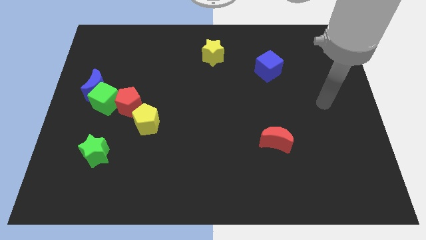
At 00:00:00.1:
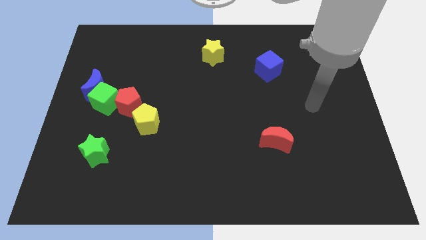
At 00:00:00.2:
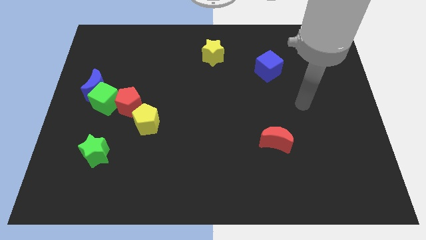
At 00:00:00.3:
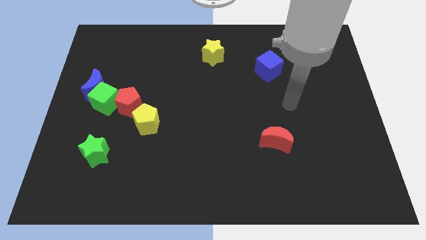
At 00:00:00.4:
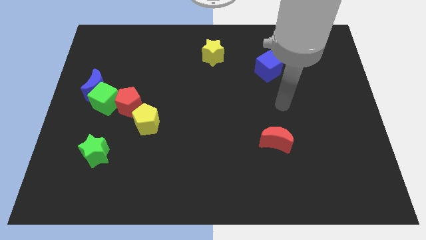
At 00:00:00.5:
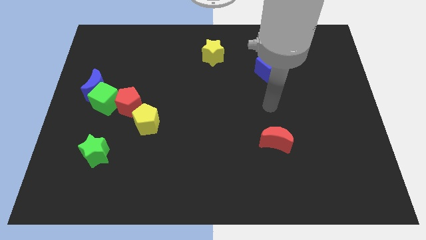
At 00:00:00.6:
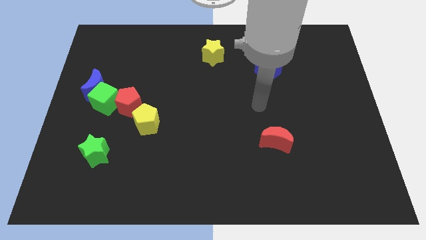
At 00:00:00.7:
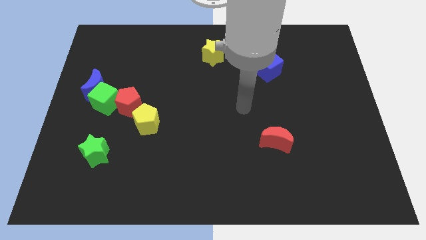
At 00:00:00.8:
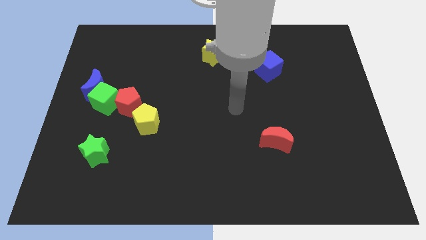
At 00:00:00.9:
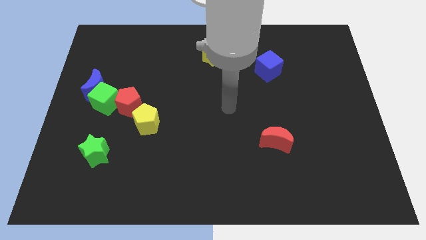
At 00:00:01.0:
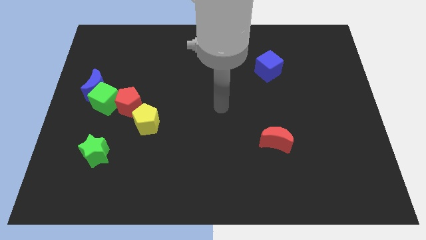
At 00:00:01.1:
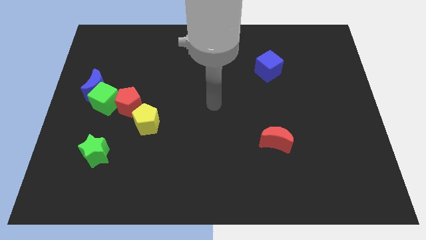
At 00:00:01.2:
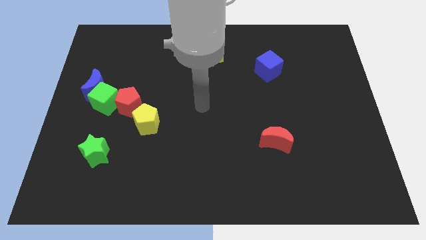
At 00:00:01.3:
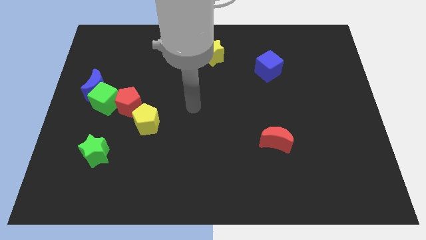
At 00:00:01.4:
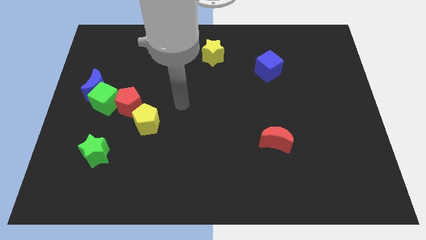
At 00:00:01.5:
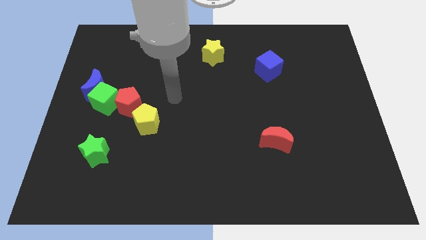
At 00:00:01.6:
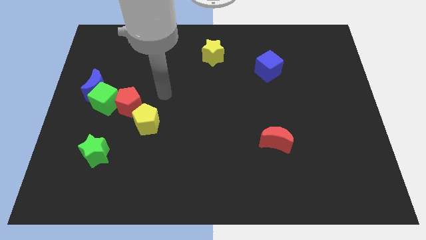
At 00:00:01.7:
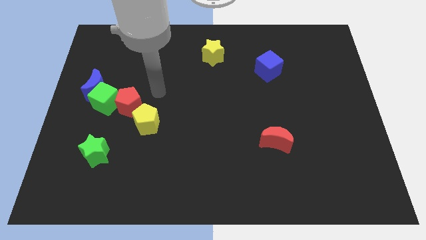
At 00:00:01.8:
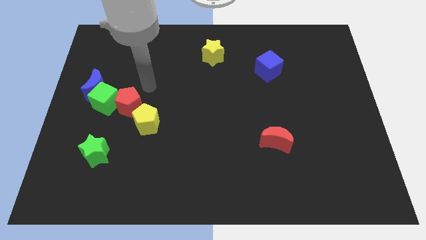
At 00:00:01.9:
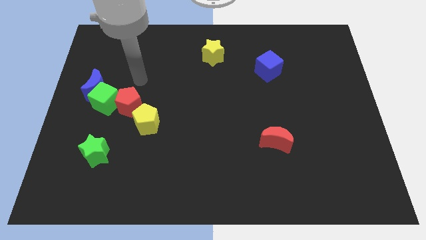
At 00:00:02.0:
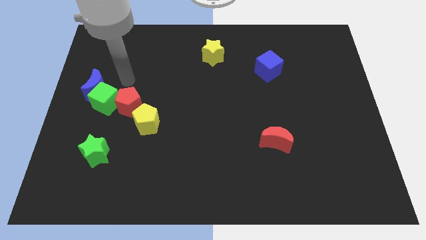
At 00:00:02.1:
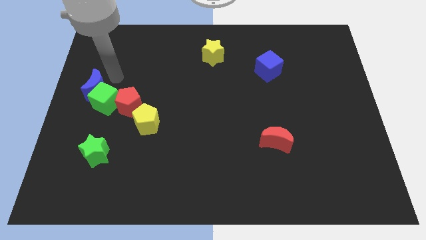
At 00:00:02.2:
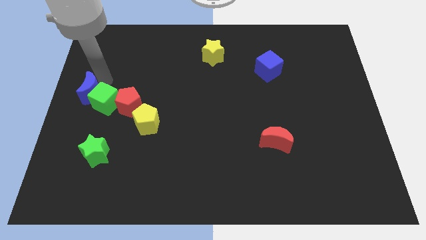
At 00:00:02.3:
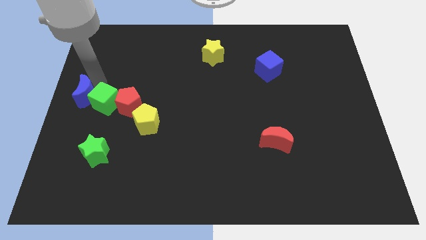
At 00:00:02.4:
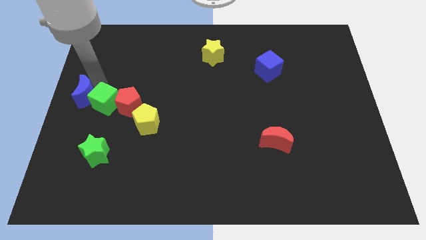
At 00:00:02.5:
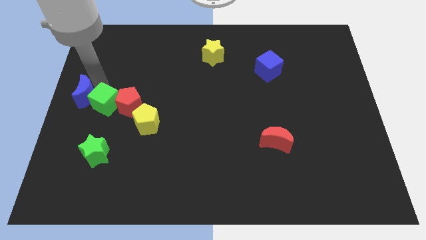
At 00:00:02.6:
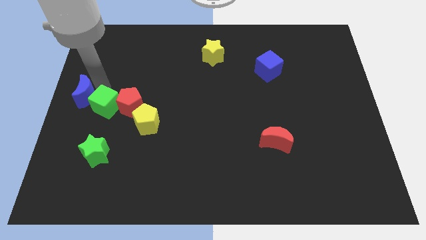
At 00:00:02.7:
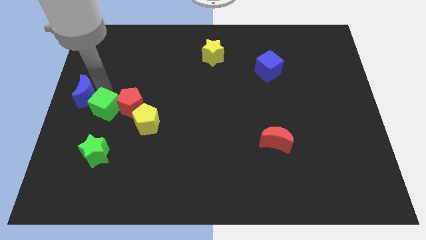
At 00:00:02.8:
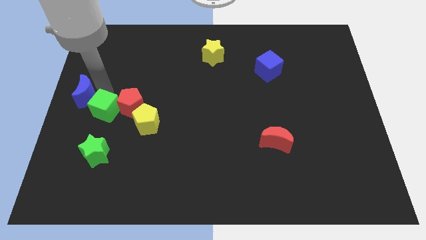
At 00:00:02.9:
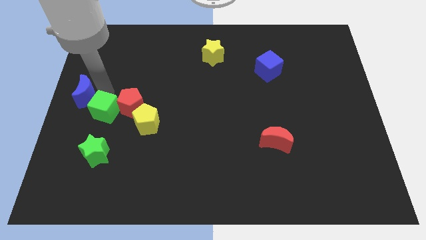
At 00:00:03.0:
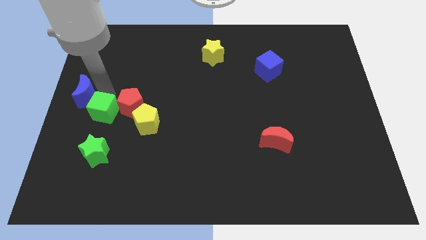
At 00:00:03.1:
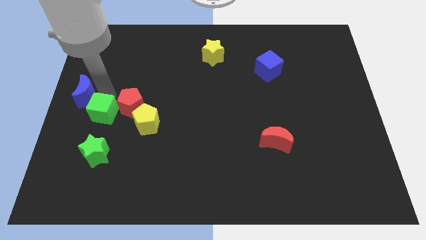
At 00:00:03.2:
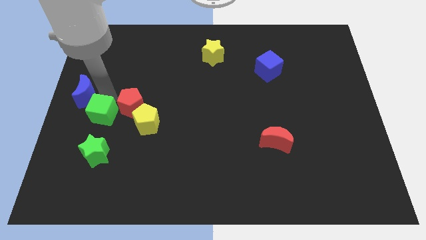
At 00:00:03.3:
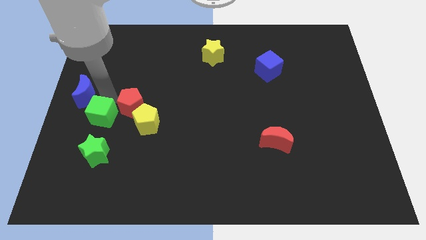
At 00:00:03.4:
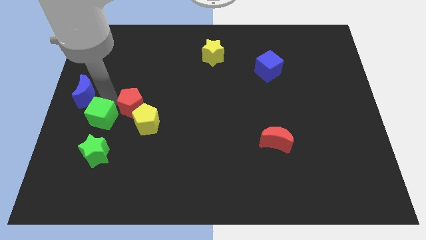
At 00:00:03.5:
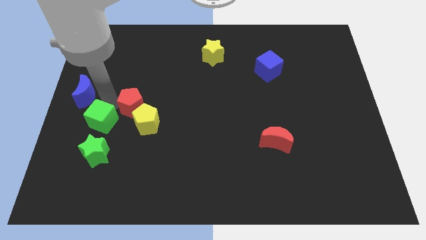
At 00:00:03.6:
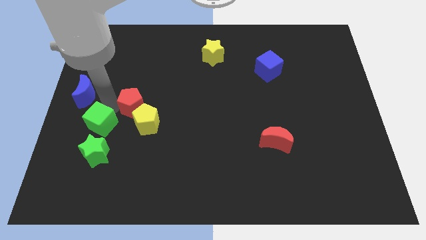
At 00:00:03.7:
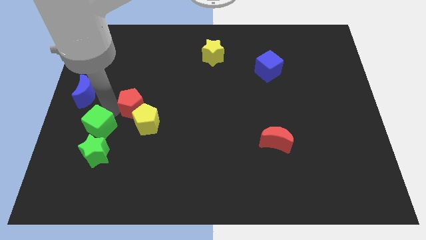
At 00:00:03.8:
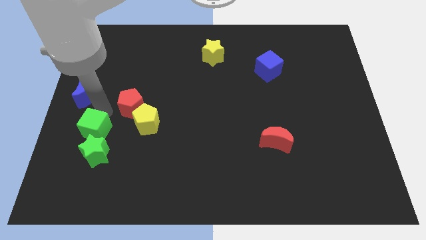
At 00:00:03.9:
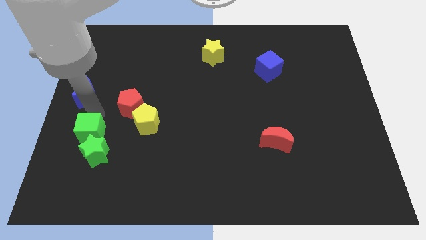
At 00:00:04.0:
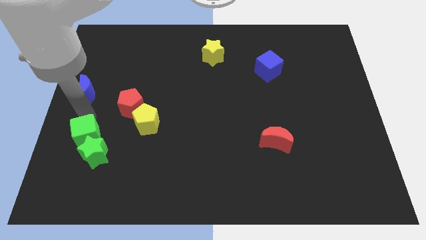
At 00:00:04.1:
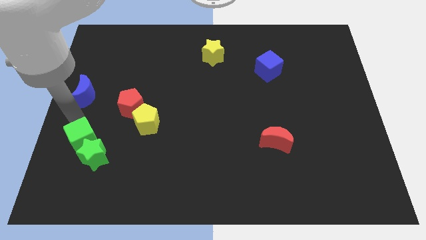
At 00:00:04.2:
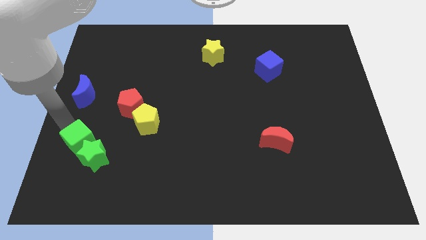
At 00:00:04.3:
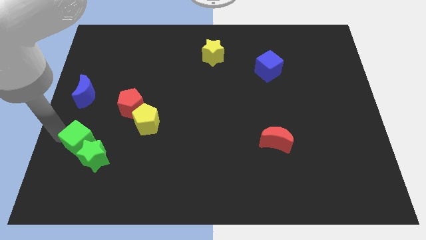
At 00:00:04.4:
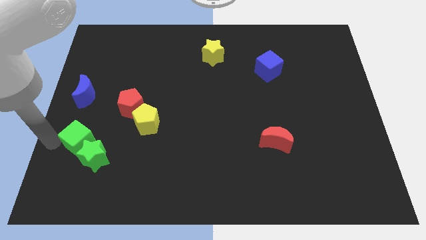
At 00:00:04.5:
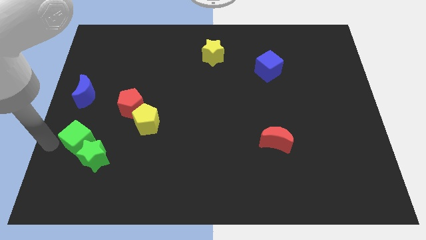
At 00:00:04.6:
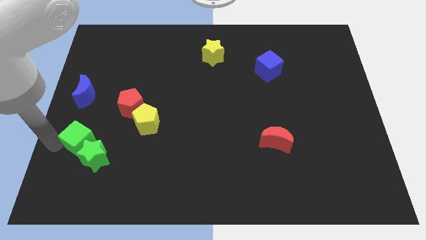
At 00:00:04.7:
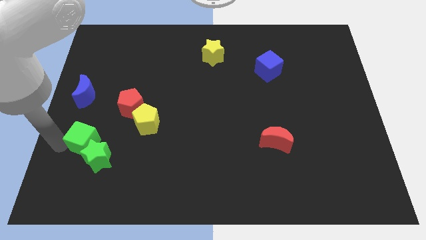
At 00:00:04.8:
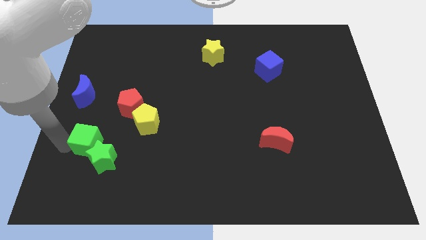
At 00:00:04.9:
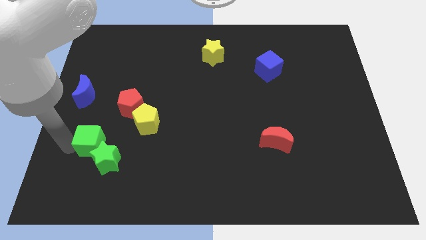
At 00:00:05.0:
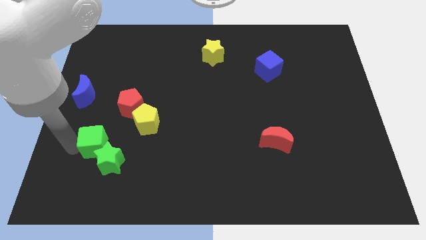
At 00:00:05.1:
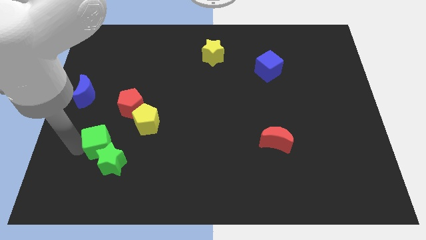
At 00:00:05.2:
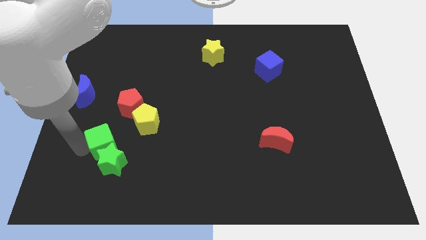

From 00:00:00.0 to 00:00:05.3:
push the green cube a little diagonally downwards and to the right

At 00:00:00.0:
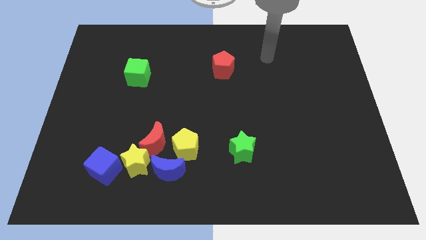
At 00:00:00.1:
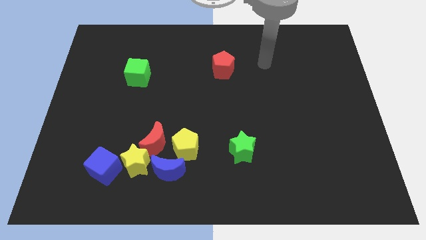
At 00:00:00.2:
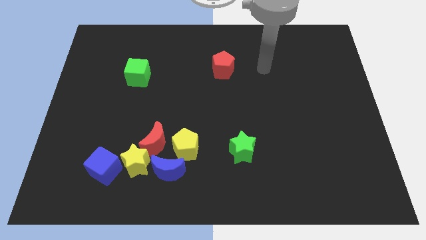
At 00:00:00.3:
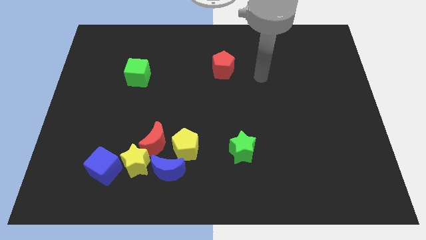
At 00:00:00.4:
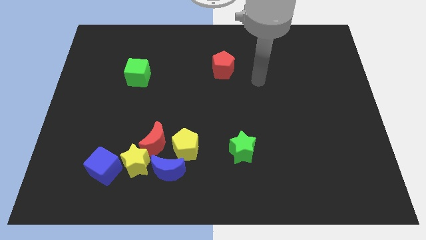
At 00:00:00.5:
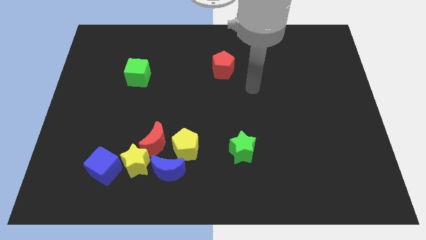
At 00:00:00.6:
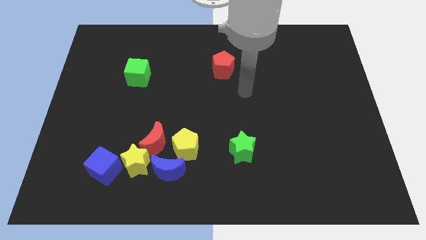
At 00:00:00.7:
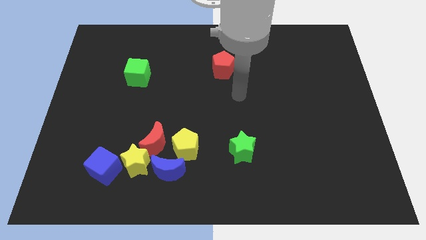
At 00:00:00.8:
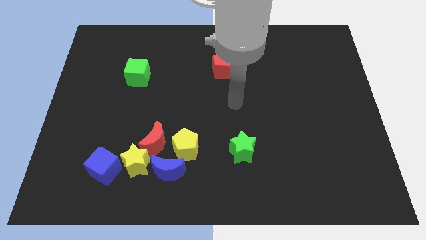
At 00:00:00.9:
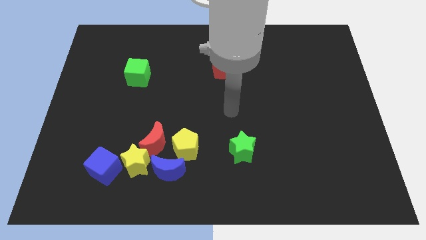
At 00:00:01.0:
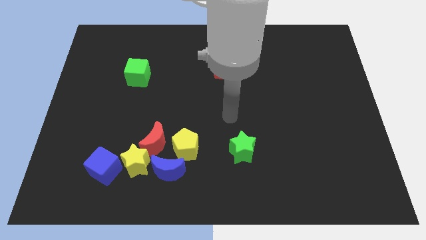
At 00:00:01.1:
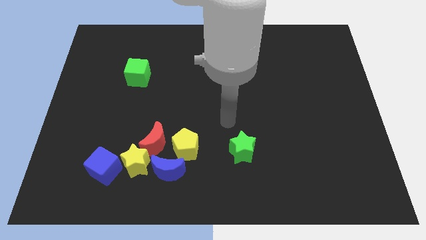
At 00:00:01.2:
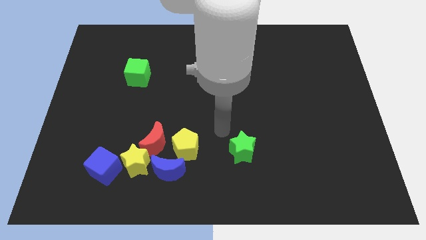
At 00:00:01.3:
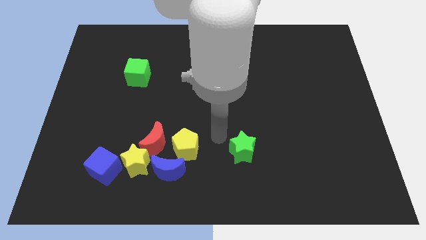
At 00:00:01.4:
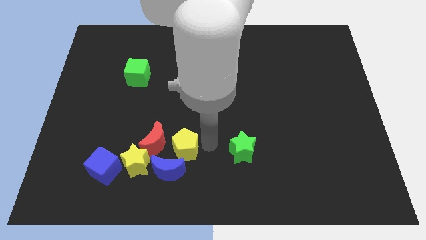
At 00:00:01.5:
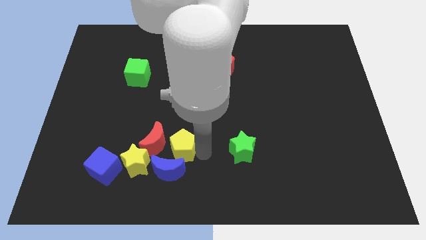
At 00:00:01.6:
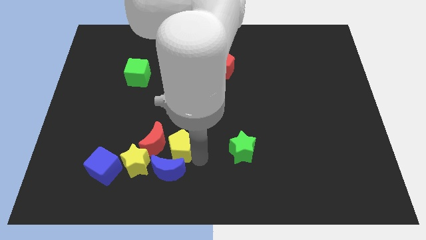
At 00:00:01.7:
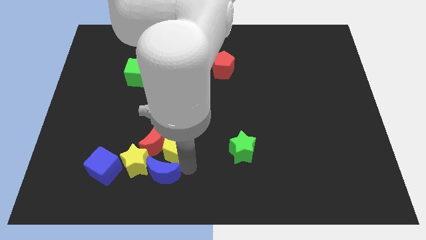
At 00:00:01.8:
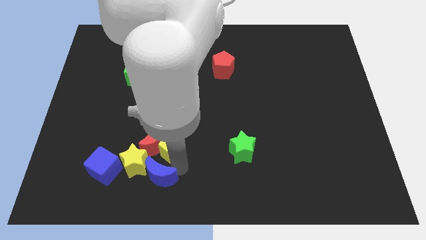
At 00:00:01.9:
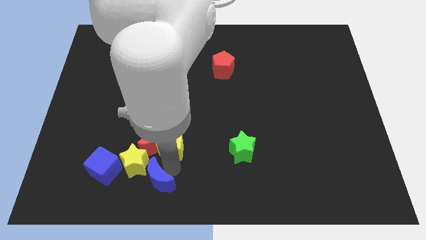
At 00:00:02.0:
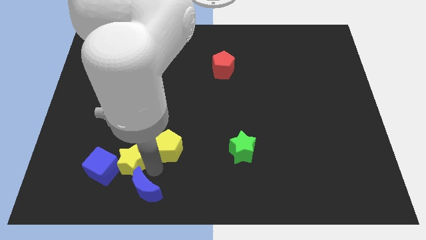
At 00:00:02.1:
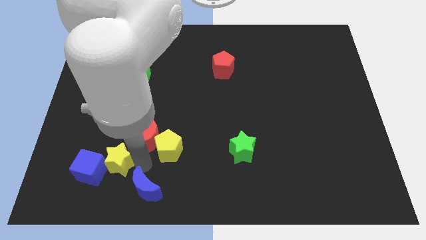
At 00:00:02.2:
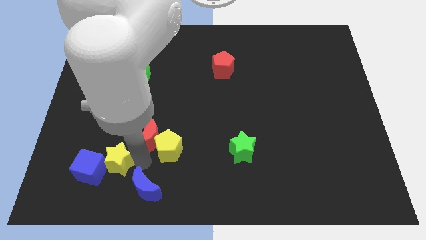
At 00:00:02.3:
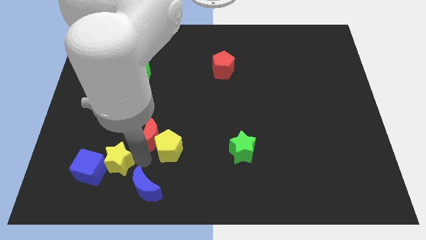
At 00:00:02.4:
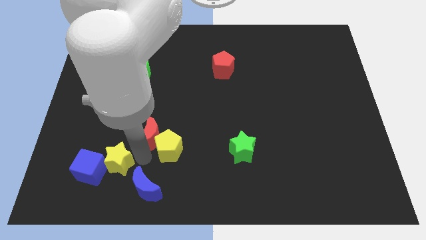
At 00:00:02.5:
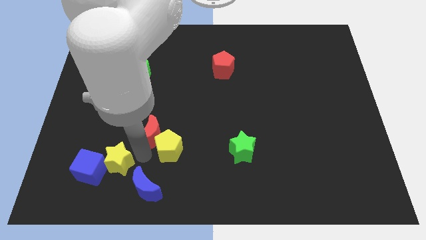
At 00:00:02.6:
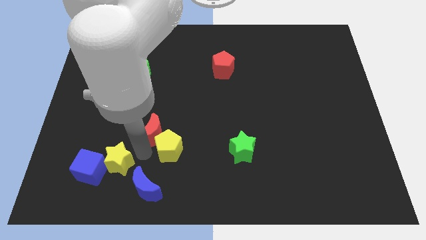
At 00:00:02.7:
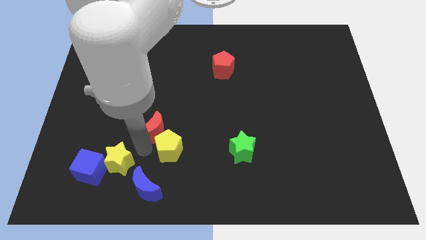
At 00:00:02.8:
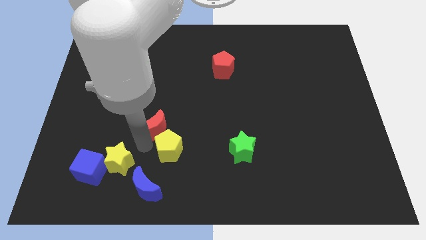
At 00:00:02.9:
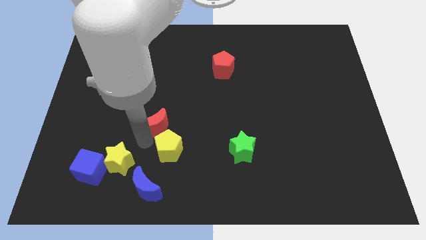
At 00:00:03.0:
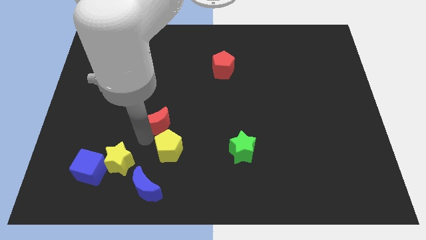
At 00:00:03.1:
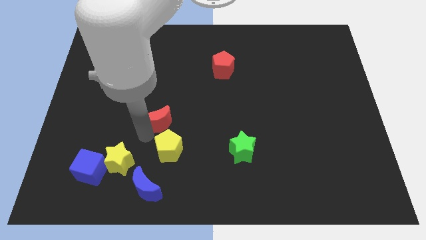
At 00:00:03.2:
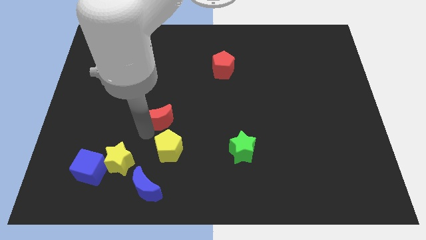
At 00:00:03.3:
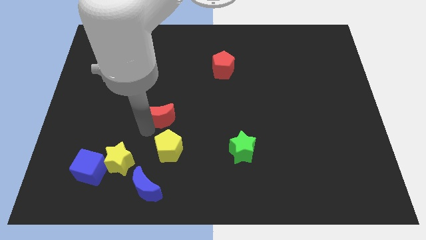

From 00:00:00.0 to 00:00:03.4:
push the red moon a bit upwards
